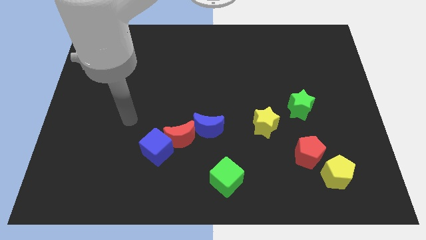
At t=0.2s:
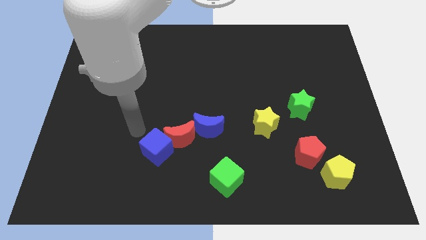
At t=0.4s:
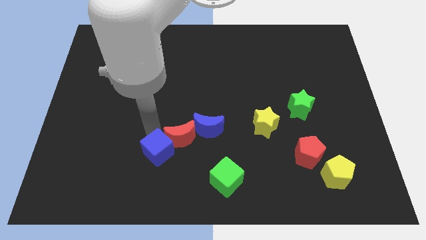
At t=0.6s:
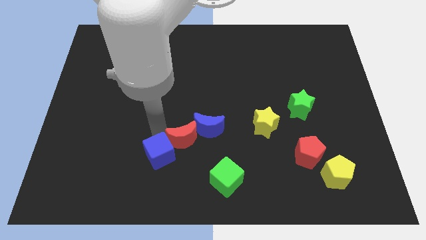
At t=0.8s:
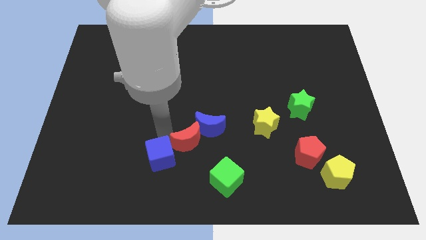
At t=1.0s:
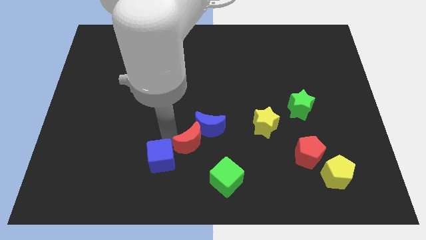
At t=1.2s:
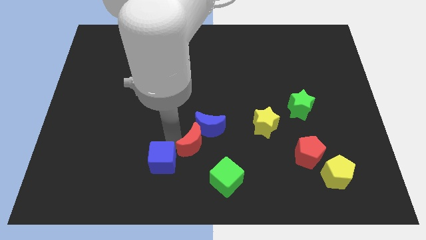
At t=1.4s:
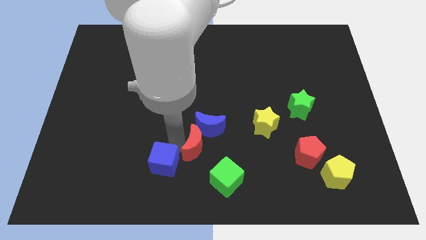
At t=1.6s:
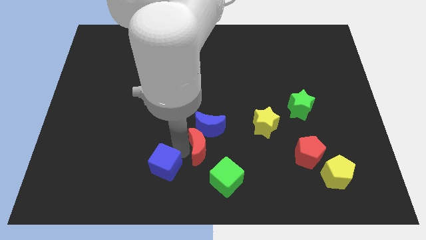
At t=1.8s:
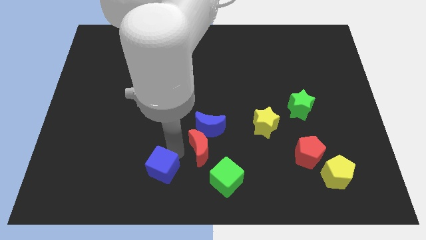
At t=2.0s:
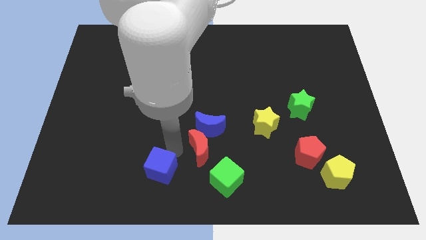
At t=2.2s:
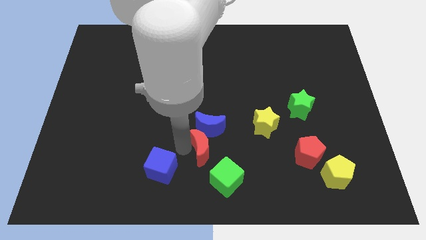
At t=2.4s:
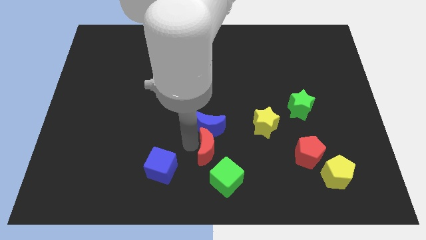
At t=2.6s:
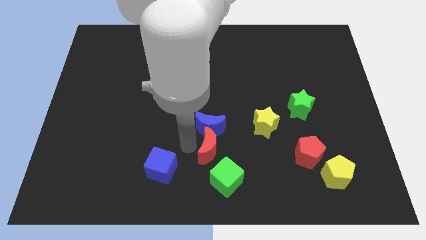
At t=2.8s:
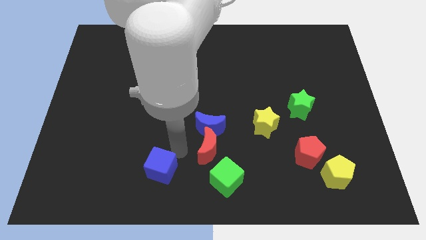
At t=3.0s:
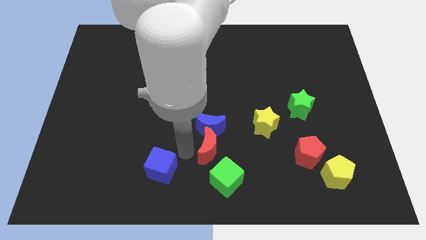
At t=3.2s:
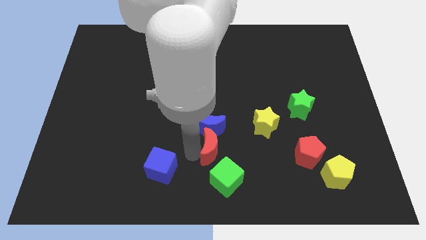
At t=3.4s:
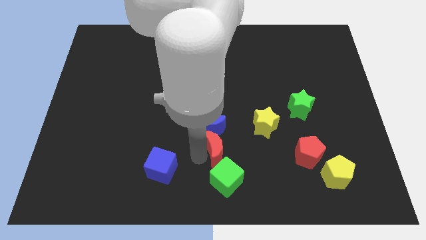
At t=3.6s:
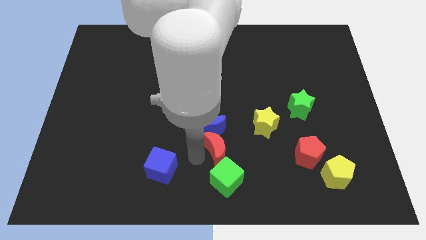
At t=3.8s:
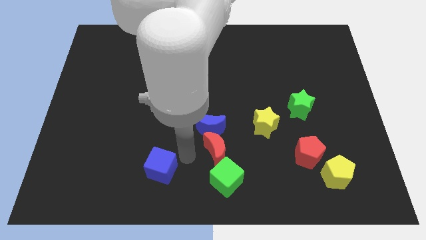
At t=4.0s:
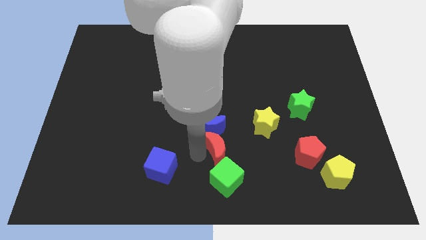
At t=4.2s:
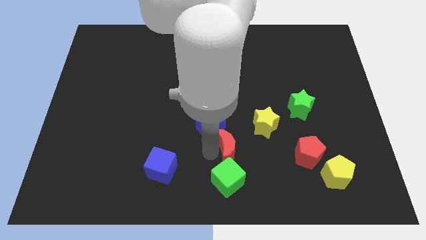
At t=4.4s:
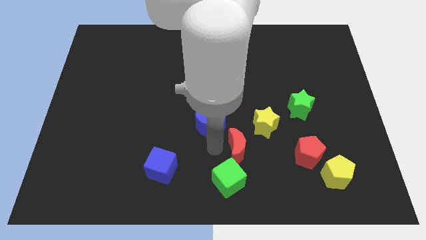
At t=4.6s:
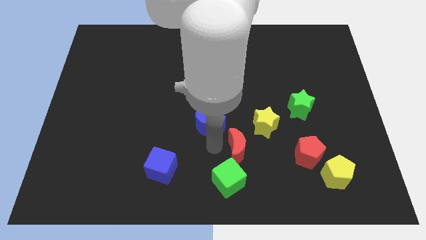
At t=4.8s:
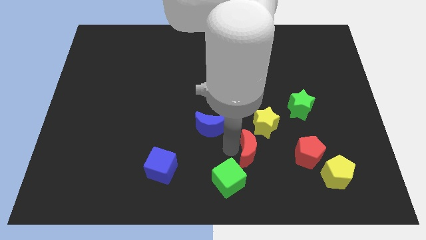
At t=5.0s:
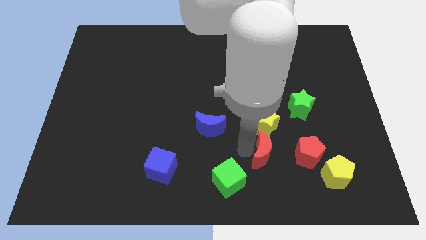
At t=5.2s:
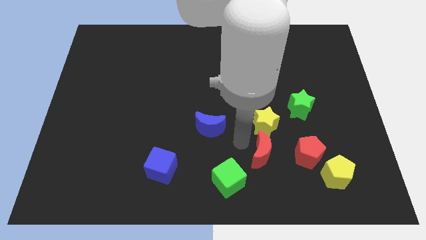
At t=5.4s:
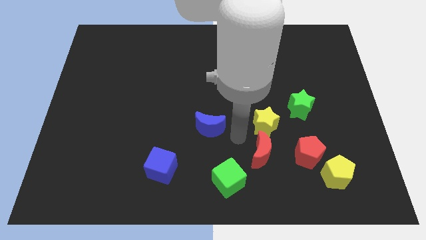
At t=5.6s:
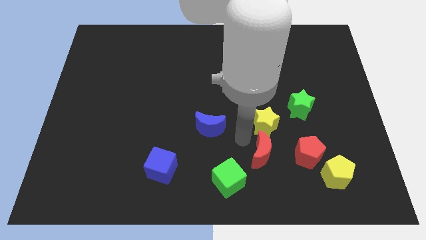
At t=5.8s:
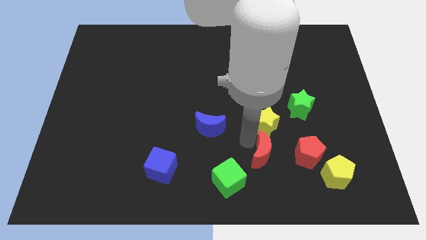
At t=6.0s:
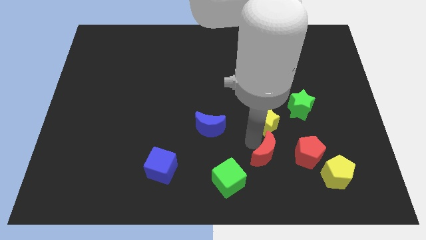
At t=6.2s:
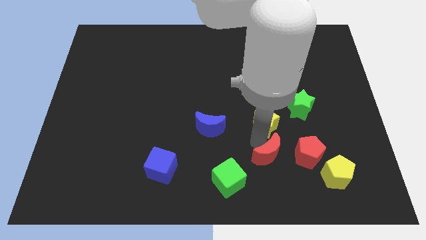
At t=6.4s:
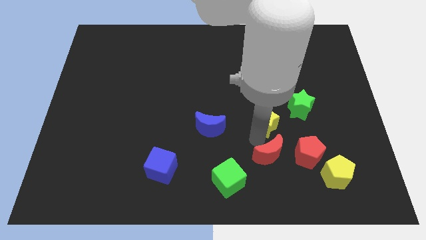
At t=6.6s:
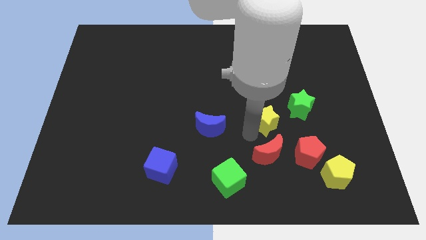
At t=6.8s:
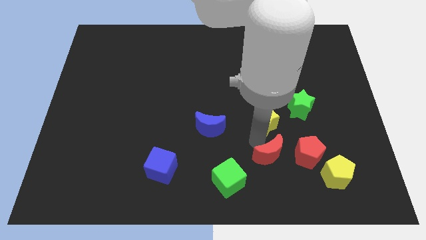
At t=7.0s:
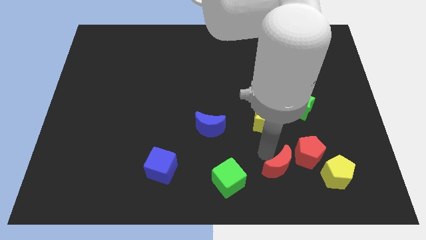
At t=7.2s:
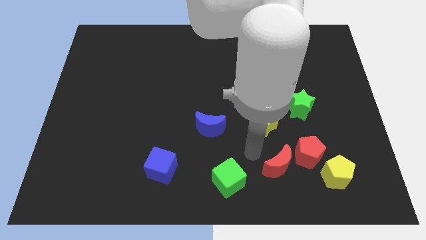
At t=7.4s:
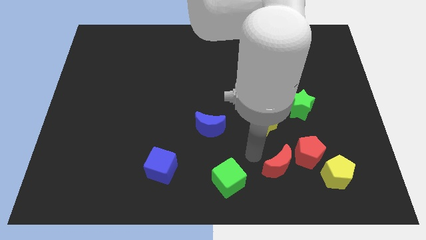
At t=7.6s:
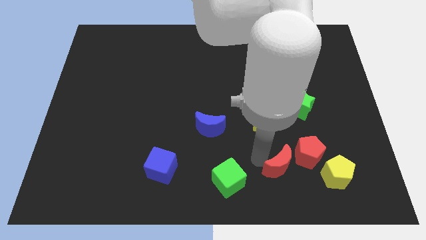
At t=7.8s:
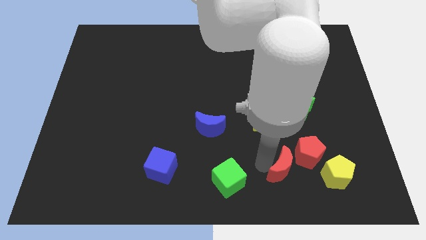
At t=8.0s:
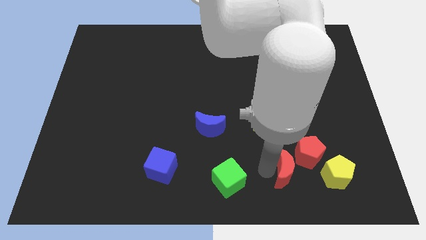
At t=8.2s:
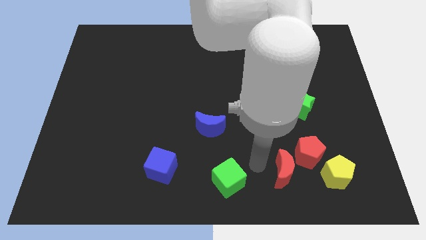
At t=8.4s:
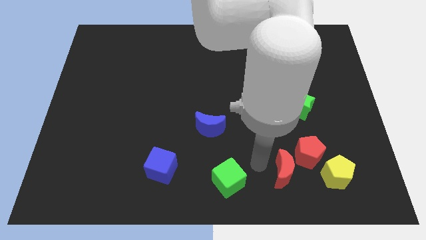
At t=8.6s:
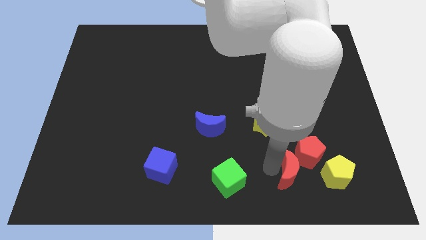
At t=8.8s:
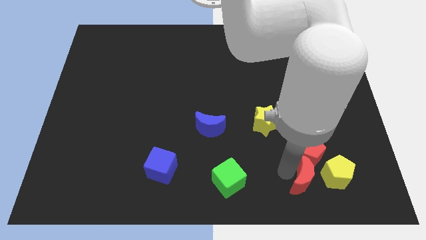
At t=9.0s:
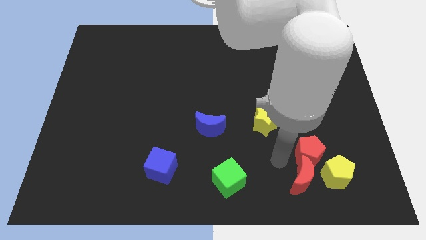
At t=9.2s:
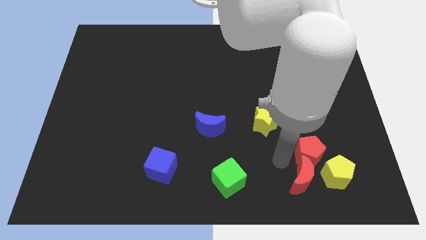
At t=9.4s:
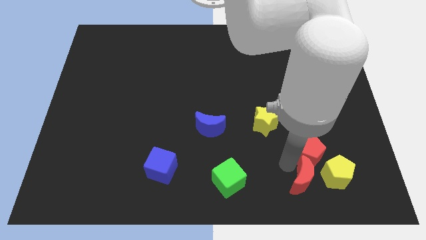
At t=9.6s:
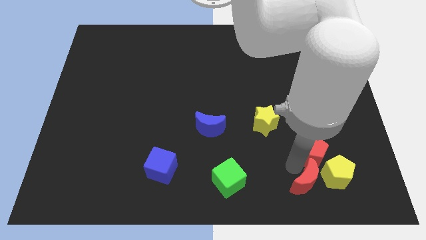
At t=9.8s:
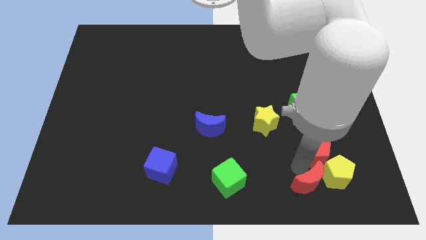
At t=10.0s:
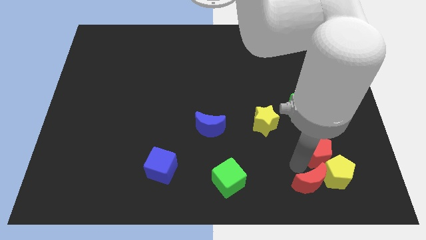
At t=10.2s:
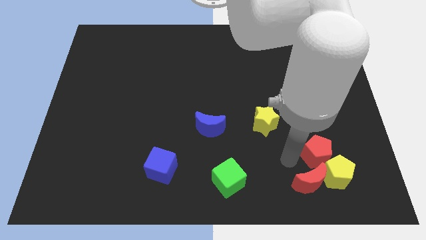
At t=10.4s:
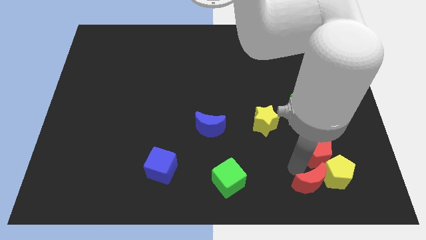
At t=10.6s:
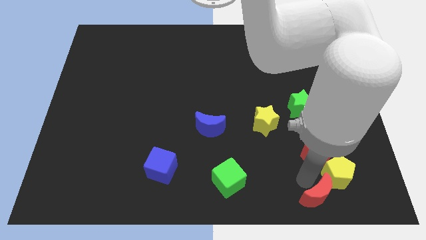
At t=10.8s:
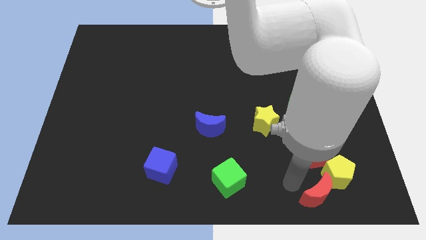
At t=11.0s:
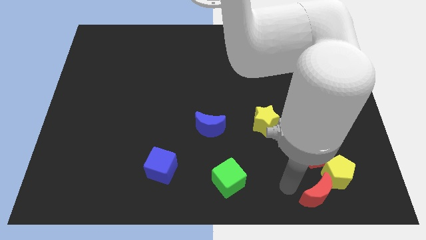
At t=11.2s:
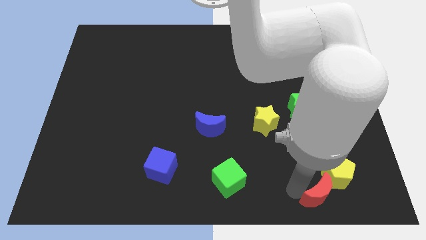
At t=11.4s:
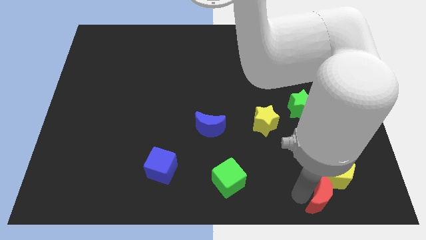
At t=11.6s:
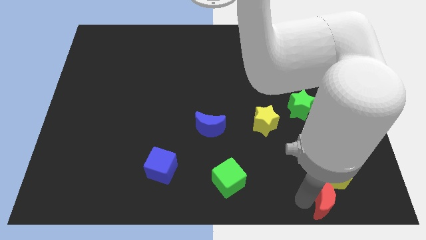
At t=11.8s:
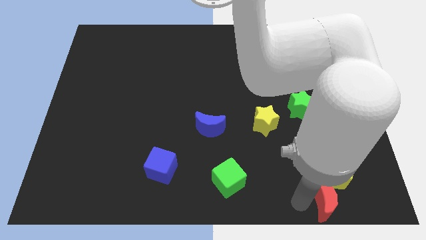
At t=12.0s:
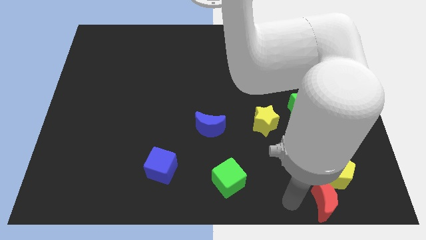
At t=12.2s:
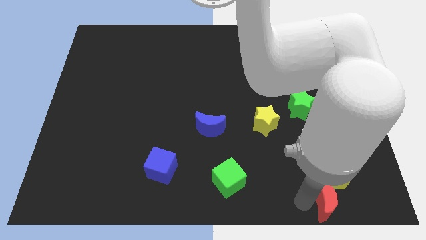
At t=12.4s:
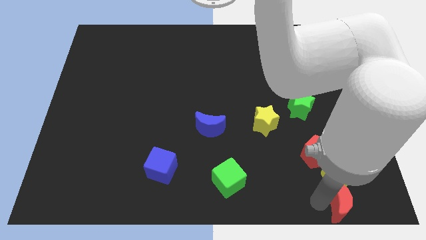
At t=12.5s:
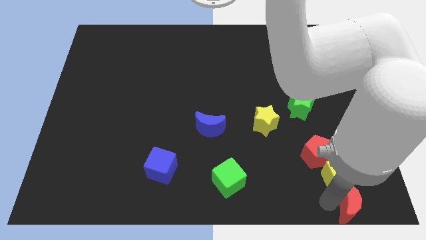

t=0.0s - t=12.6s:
push the red moon to the bottom right corner

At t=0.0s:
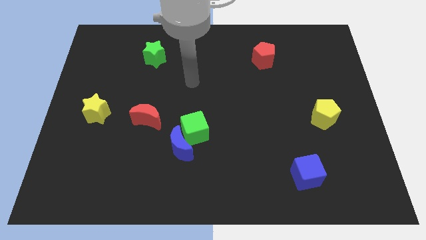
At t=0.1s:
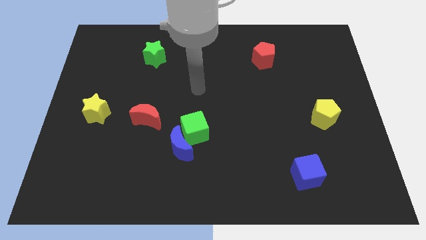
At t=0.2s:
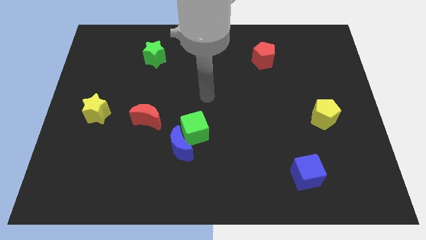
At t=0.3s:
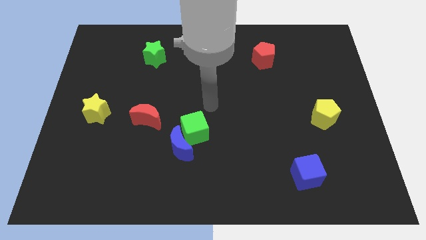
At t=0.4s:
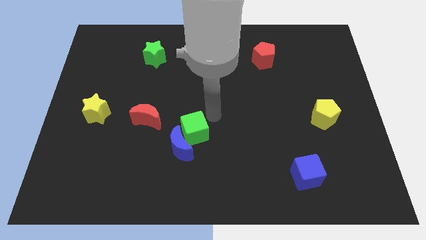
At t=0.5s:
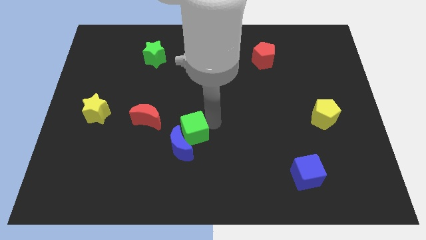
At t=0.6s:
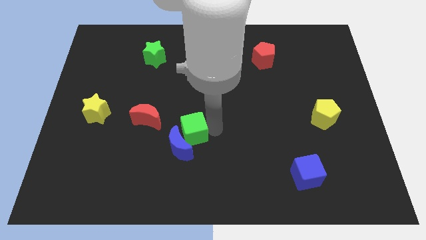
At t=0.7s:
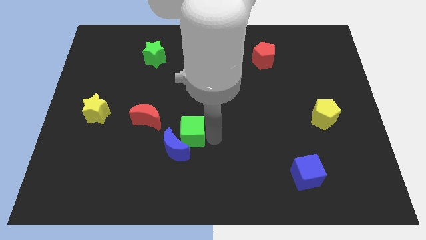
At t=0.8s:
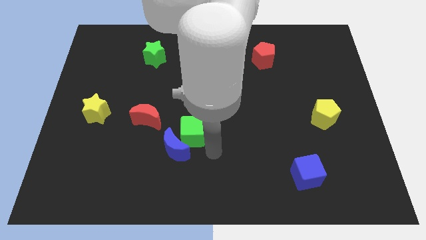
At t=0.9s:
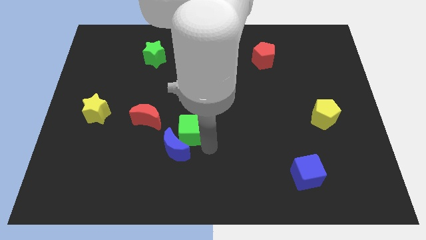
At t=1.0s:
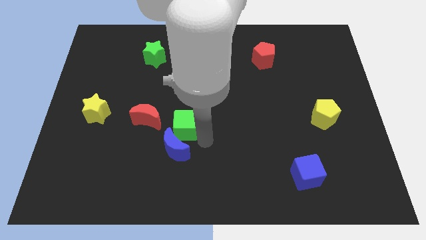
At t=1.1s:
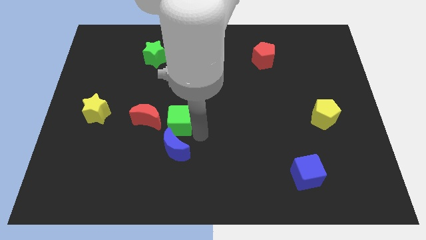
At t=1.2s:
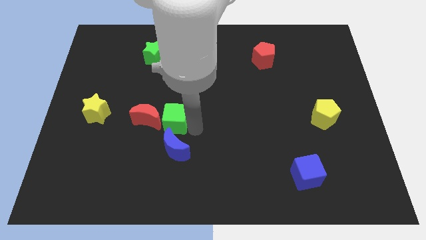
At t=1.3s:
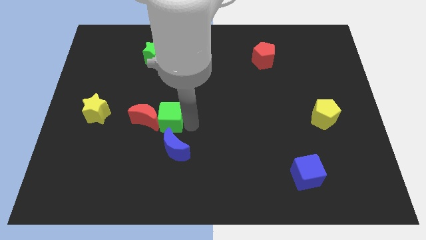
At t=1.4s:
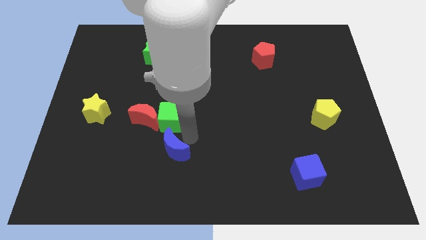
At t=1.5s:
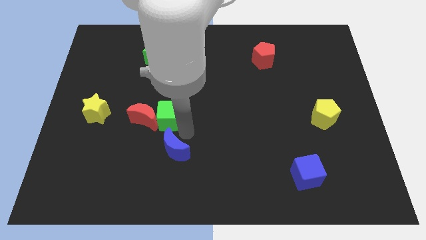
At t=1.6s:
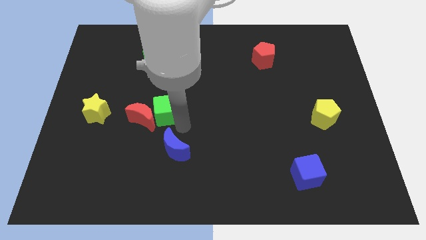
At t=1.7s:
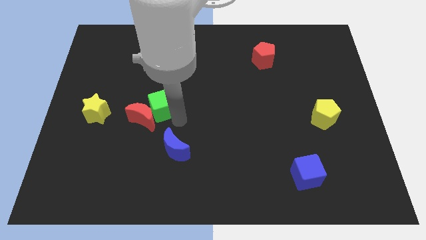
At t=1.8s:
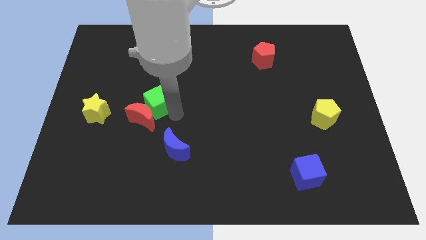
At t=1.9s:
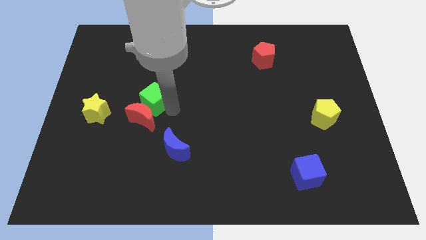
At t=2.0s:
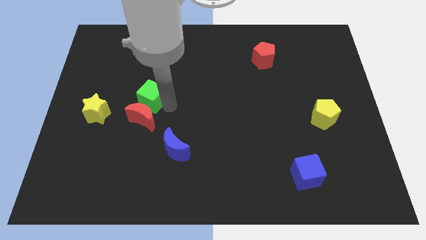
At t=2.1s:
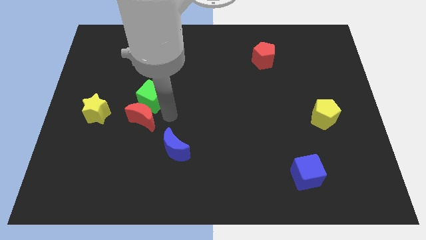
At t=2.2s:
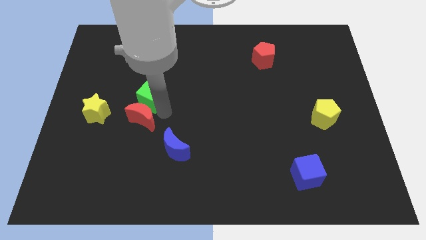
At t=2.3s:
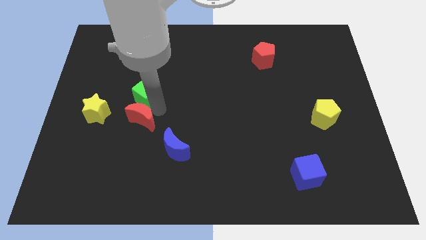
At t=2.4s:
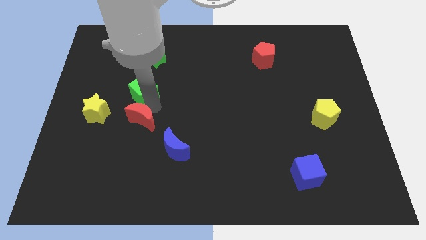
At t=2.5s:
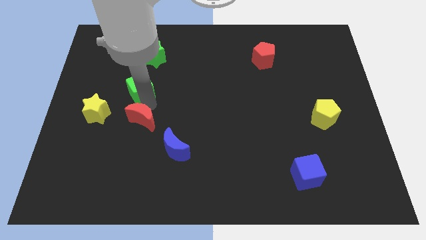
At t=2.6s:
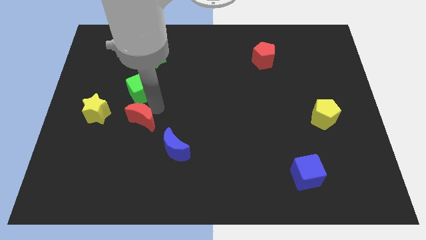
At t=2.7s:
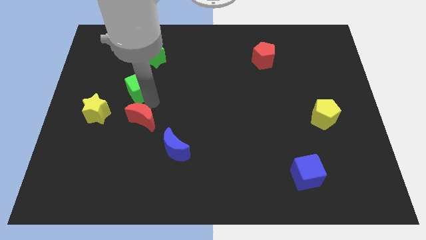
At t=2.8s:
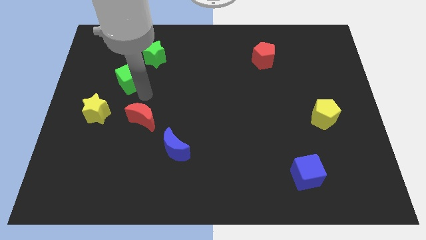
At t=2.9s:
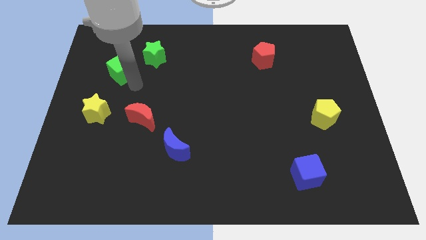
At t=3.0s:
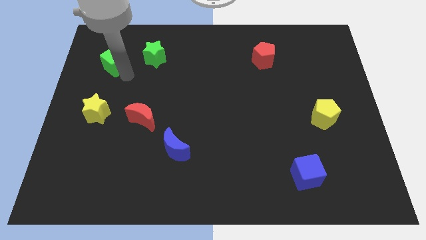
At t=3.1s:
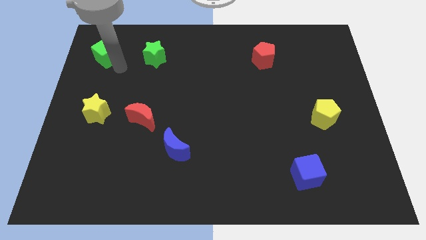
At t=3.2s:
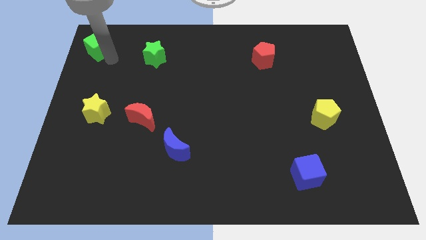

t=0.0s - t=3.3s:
slide the green cube to the upper left corner
